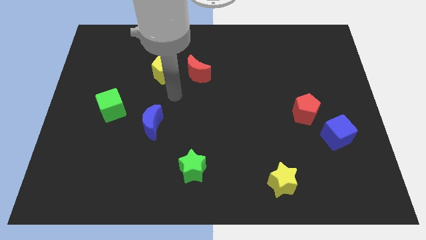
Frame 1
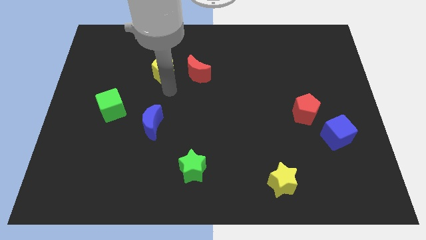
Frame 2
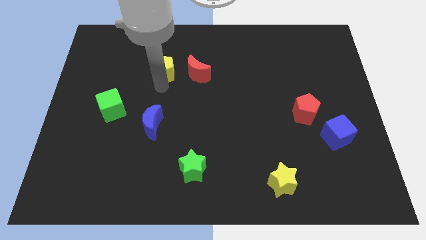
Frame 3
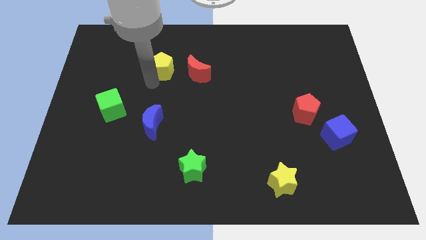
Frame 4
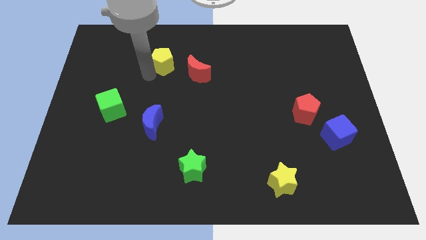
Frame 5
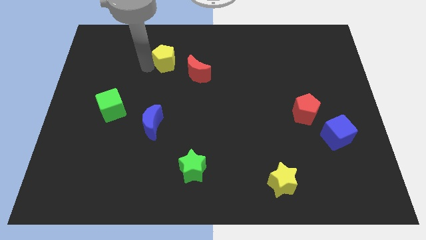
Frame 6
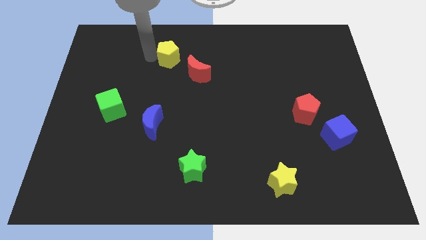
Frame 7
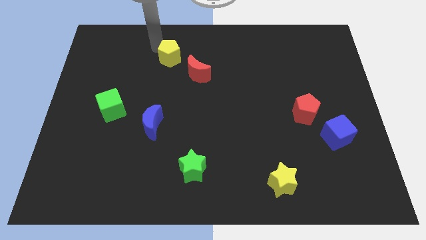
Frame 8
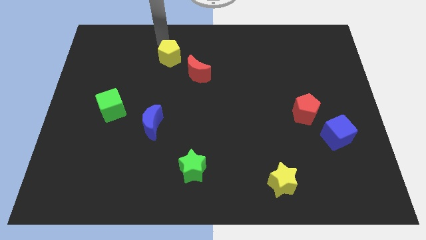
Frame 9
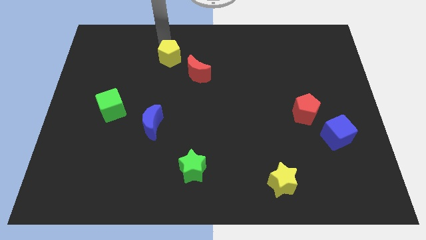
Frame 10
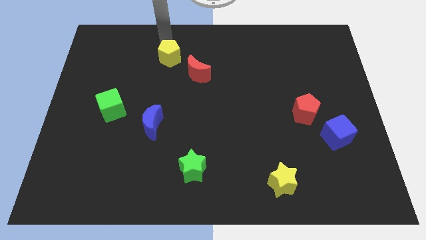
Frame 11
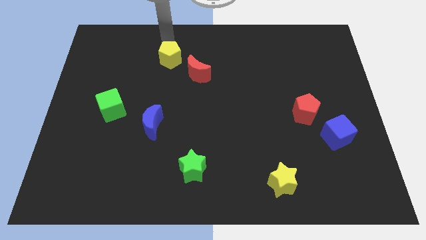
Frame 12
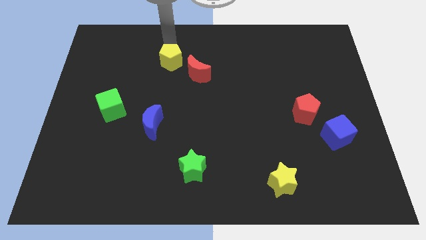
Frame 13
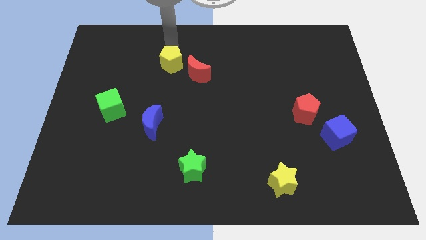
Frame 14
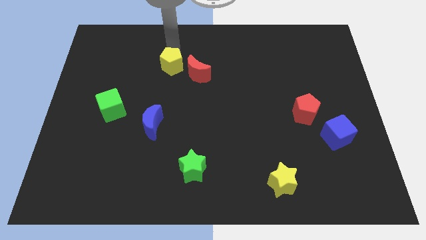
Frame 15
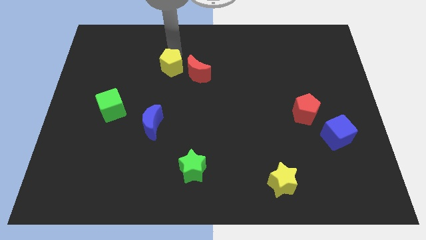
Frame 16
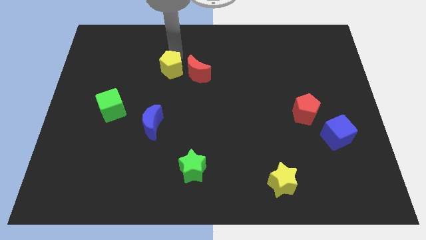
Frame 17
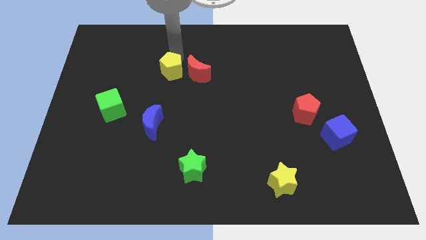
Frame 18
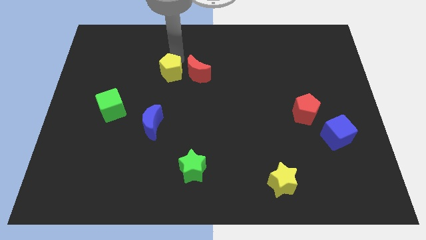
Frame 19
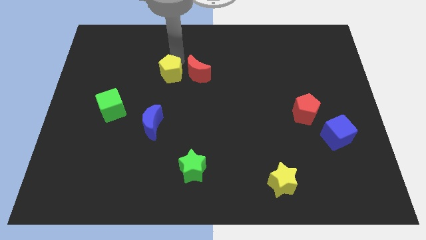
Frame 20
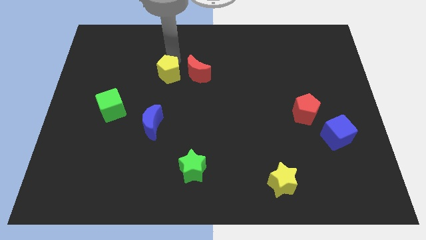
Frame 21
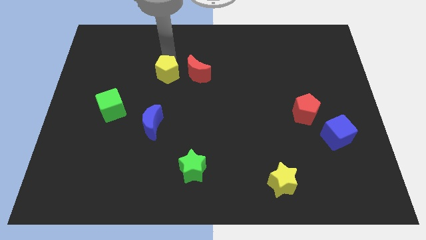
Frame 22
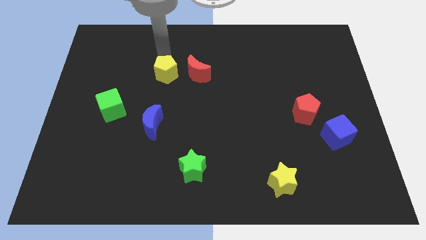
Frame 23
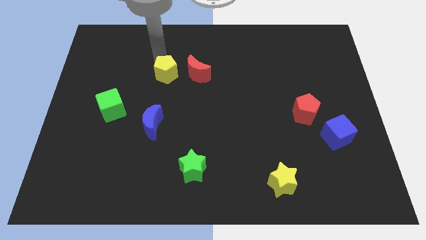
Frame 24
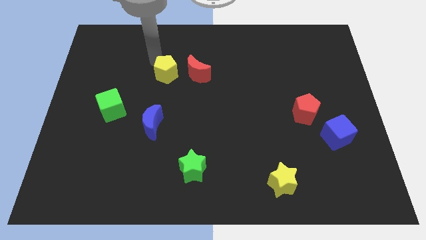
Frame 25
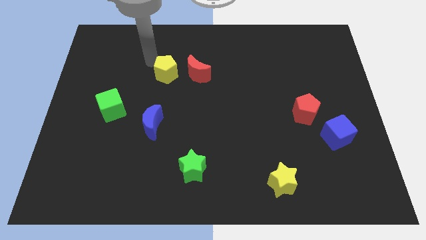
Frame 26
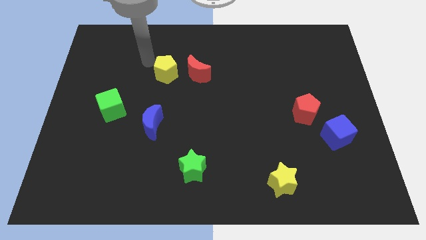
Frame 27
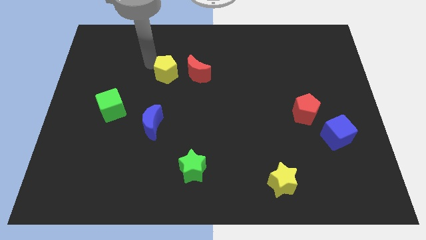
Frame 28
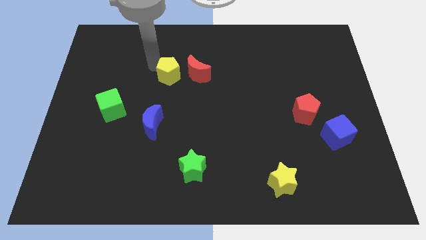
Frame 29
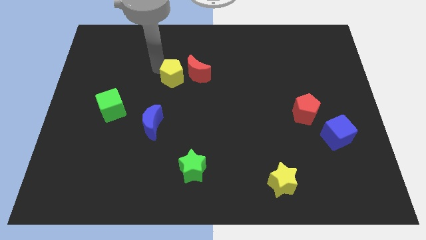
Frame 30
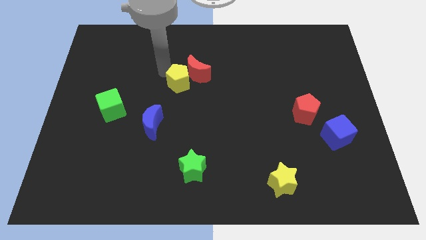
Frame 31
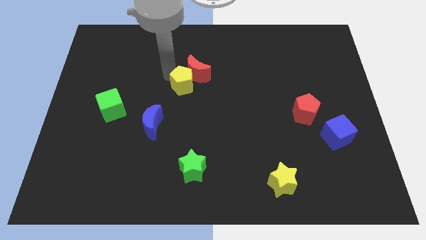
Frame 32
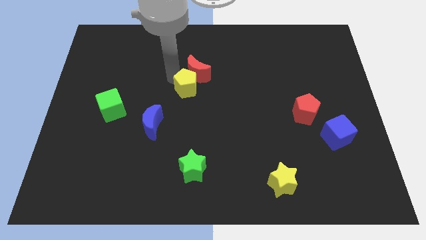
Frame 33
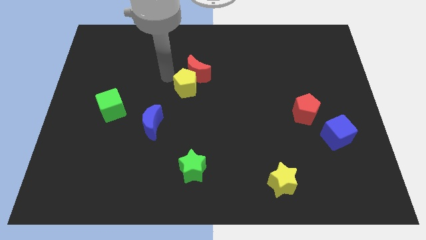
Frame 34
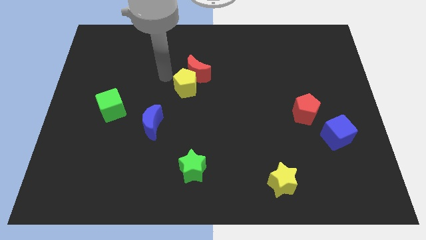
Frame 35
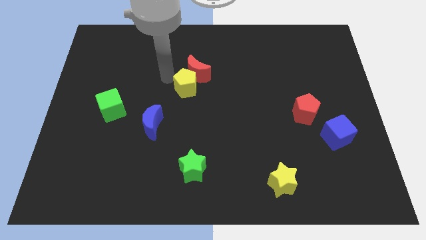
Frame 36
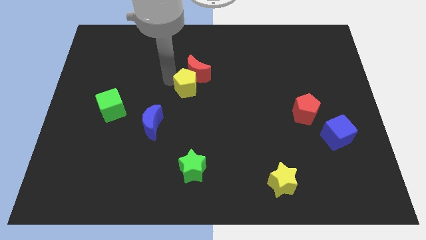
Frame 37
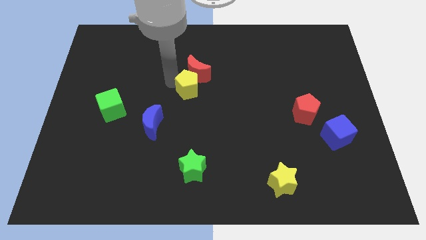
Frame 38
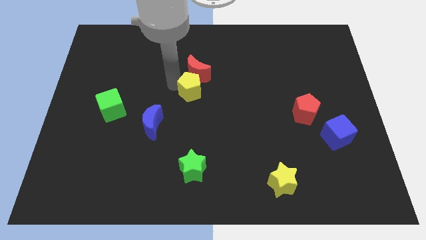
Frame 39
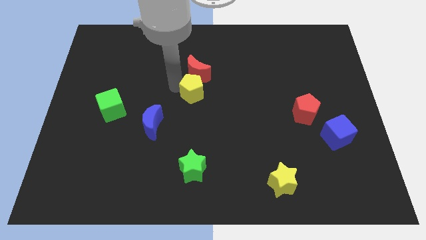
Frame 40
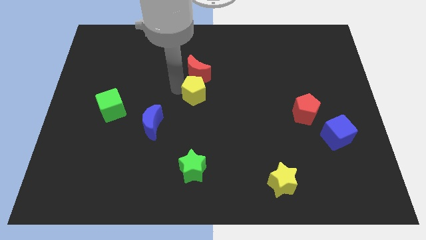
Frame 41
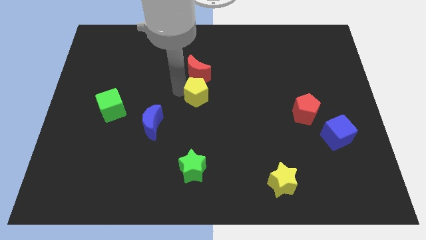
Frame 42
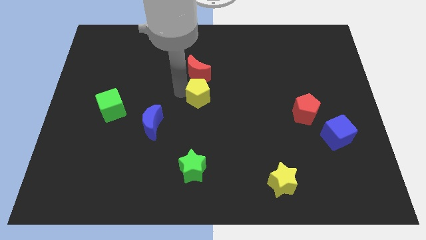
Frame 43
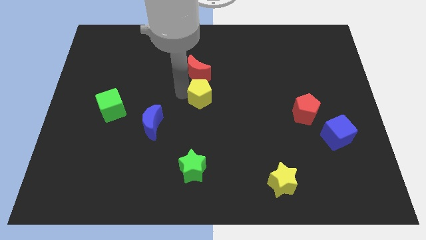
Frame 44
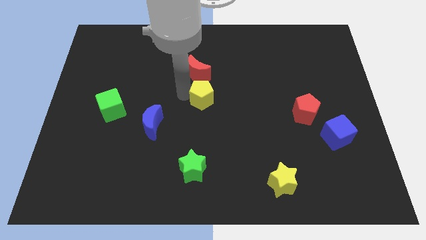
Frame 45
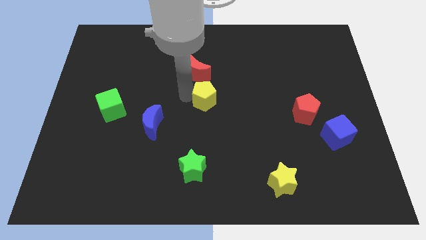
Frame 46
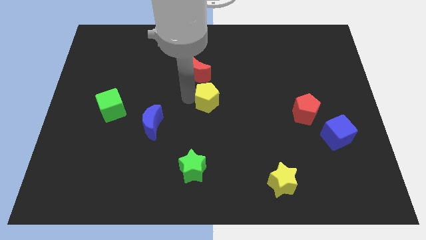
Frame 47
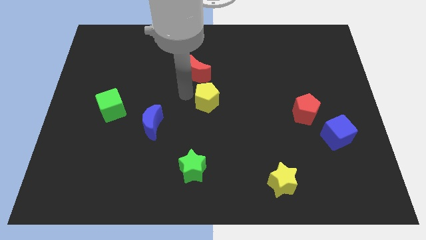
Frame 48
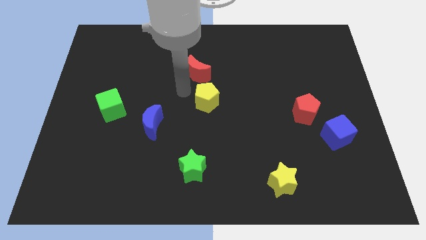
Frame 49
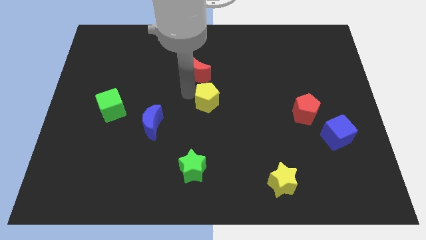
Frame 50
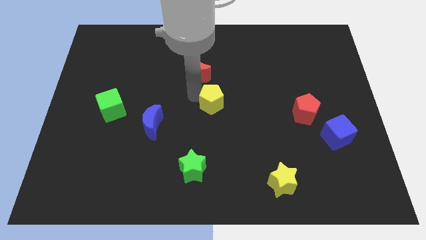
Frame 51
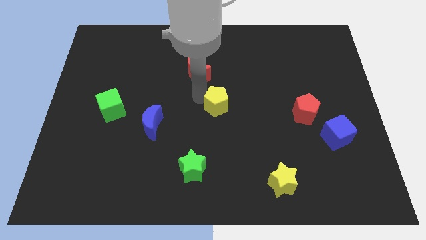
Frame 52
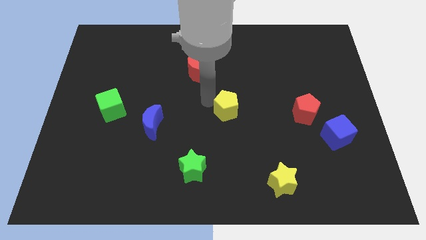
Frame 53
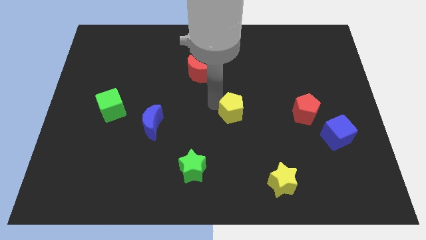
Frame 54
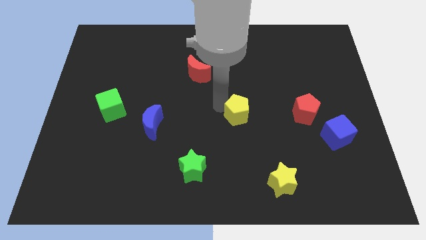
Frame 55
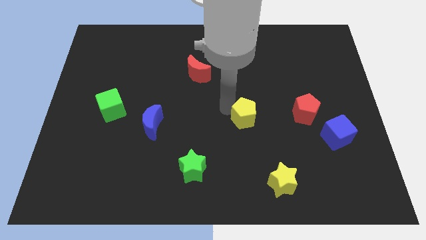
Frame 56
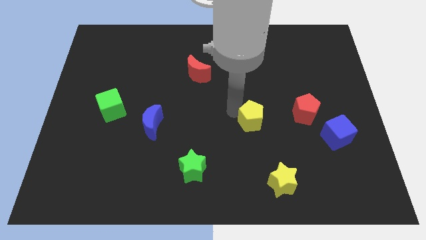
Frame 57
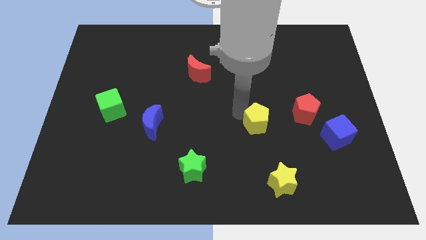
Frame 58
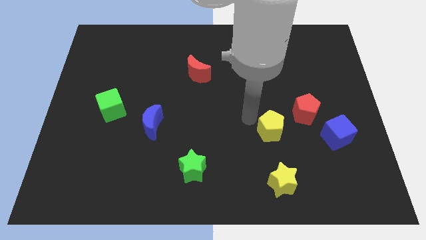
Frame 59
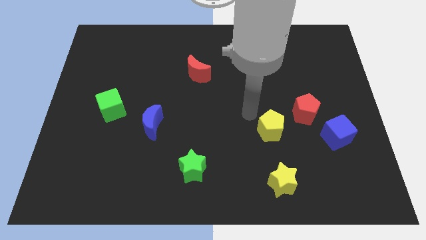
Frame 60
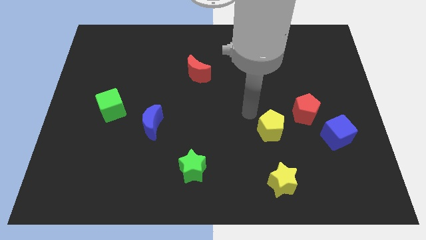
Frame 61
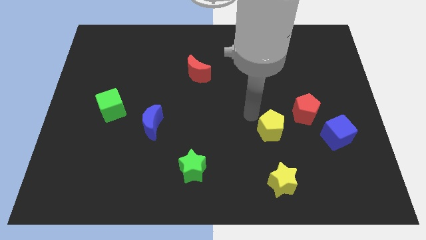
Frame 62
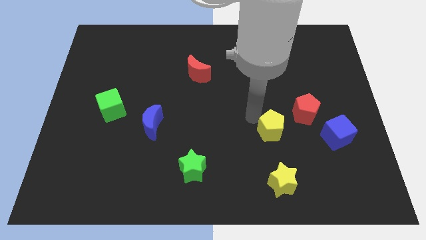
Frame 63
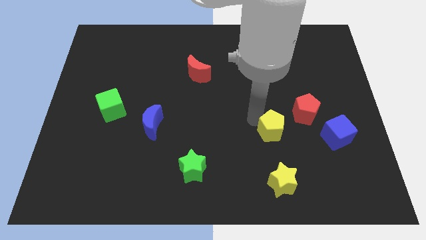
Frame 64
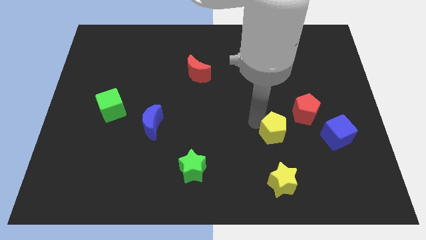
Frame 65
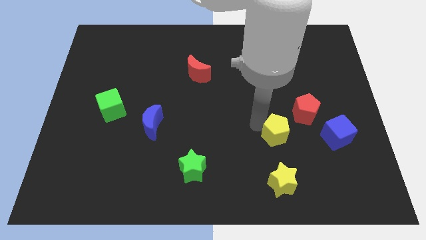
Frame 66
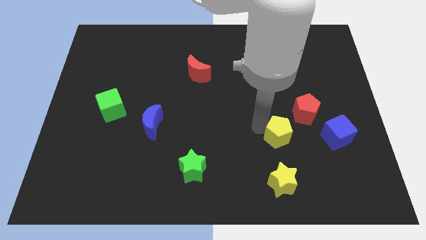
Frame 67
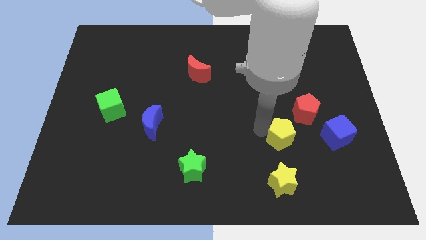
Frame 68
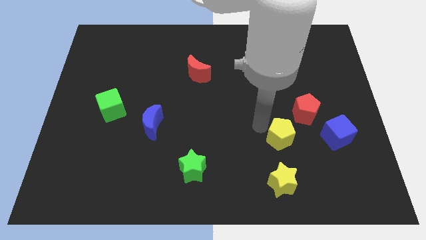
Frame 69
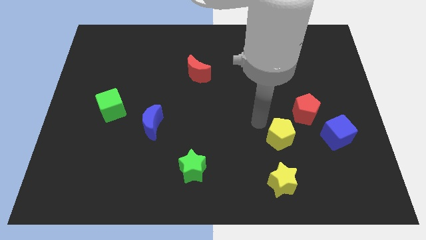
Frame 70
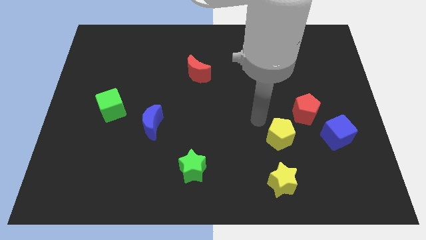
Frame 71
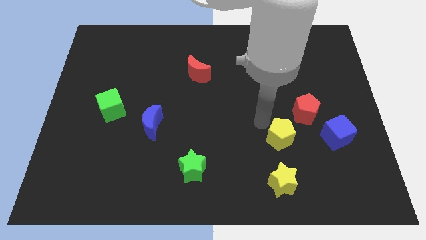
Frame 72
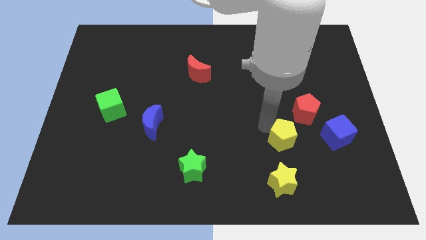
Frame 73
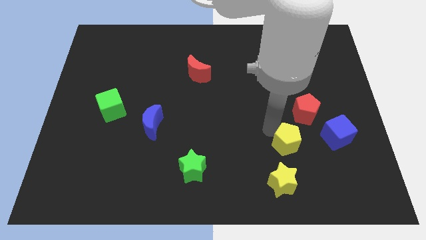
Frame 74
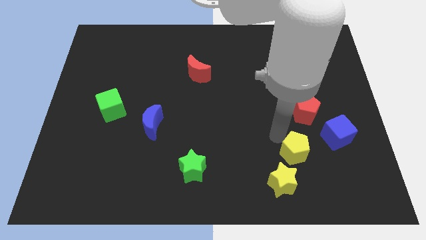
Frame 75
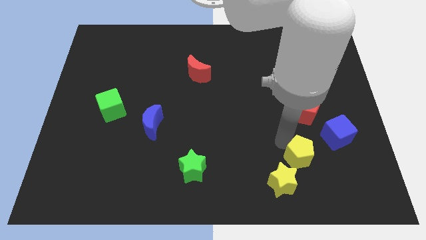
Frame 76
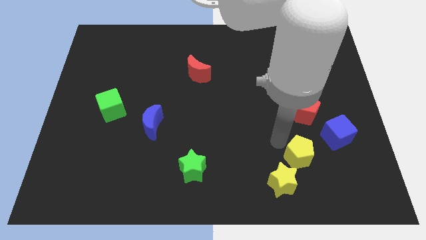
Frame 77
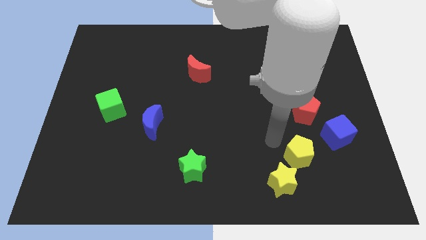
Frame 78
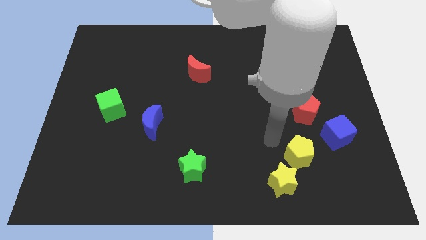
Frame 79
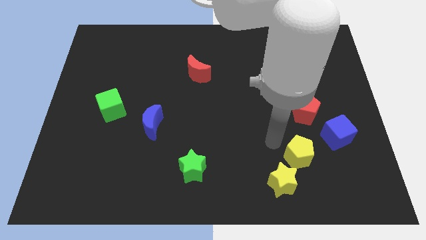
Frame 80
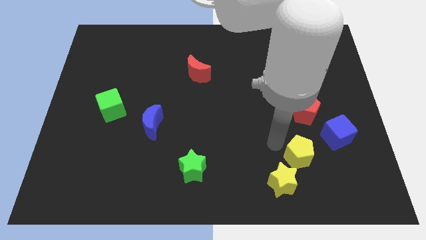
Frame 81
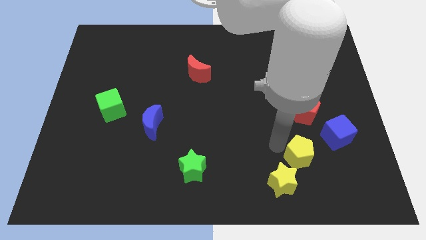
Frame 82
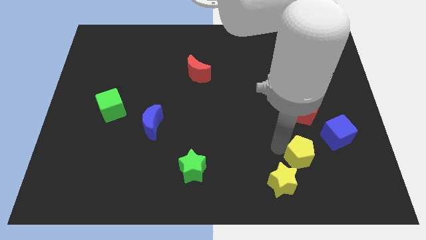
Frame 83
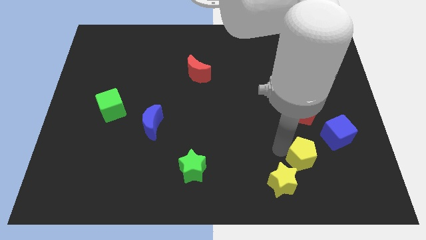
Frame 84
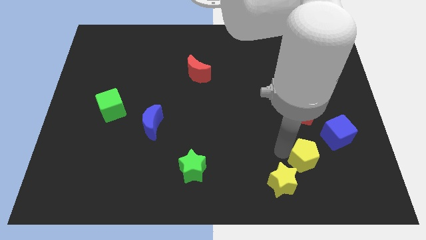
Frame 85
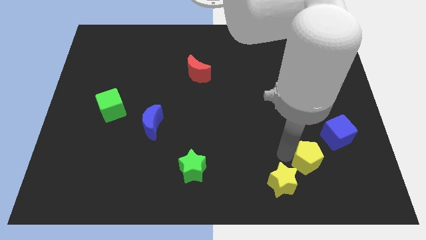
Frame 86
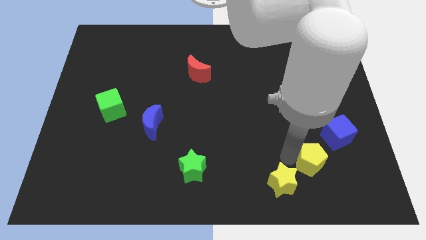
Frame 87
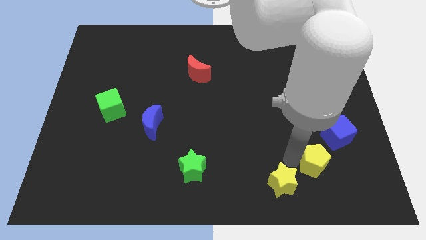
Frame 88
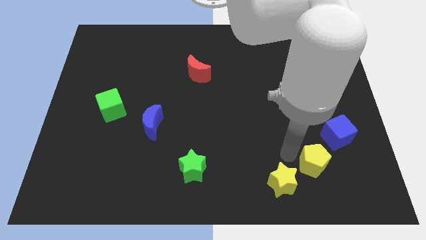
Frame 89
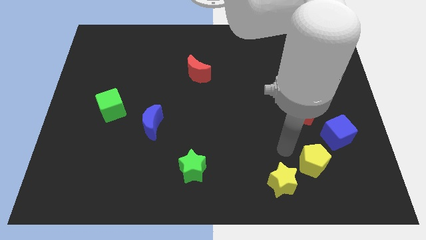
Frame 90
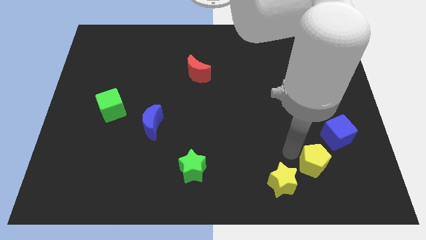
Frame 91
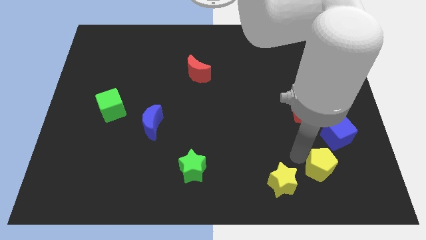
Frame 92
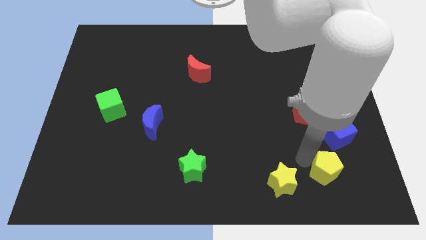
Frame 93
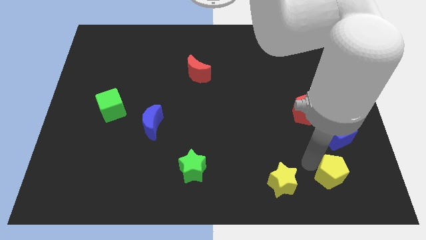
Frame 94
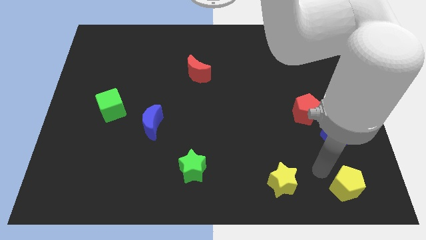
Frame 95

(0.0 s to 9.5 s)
move the yellow pentagon to the lower right corner
